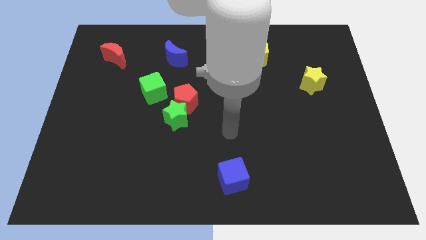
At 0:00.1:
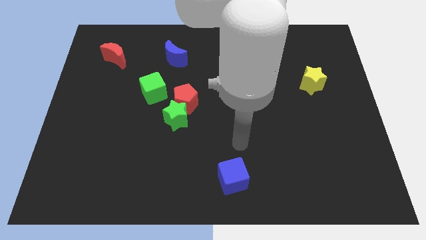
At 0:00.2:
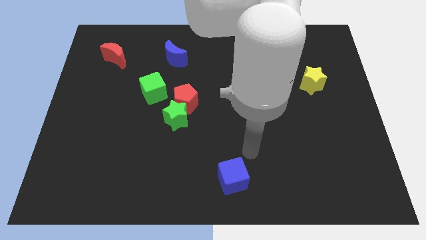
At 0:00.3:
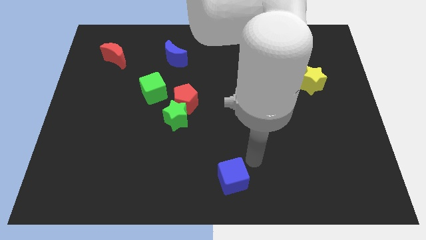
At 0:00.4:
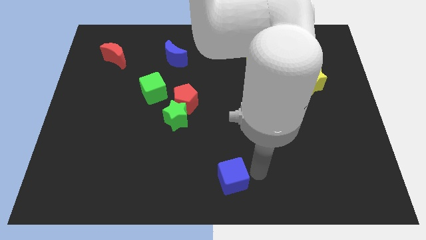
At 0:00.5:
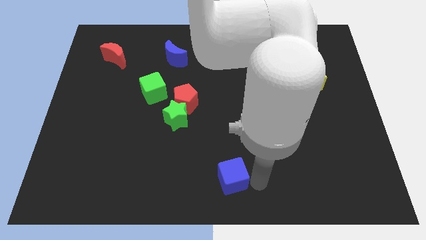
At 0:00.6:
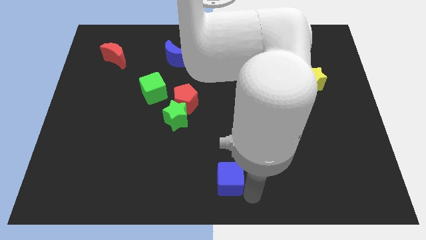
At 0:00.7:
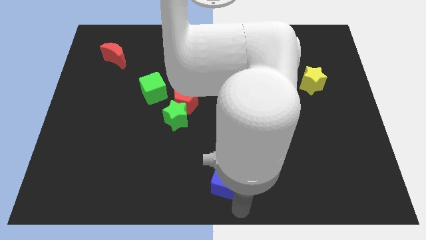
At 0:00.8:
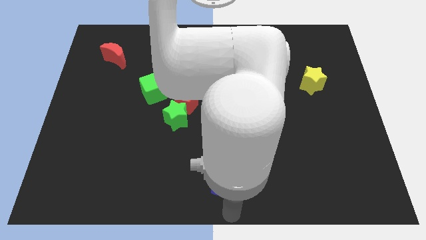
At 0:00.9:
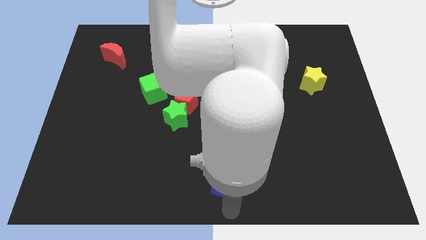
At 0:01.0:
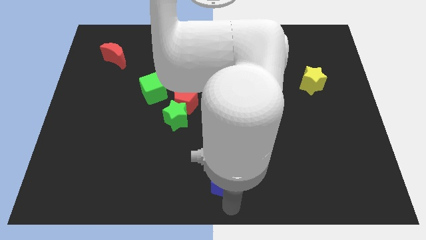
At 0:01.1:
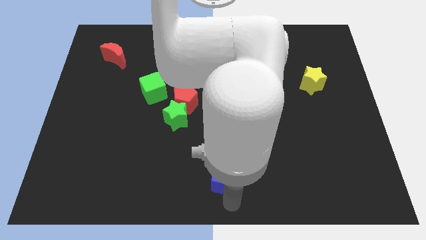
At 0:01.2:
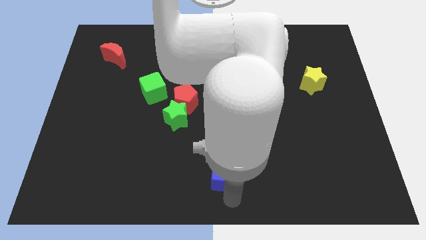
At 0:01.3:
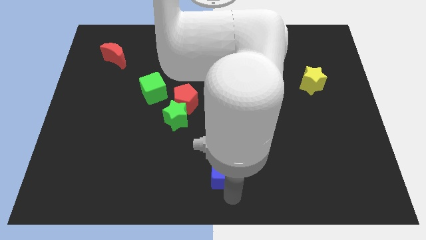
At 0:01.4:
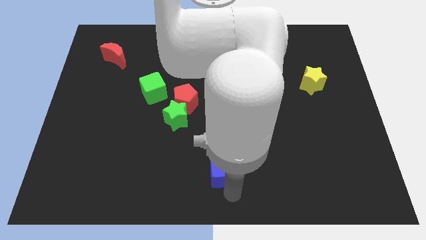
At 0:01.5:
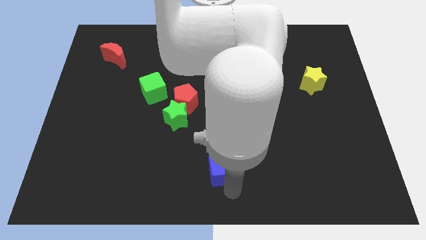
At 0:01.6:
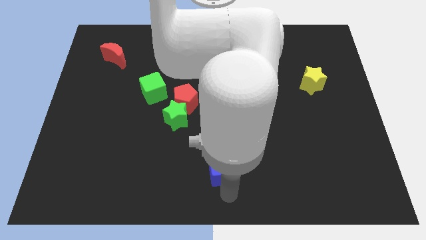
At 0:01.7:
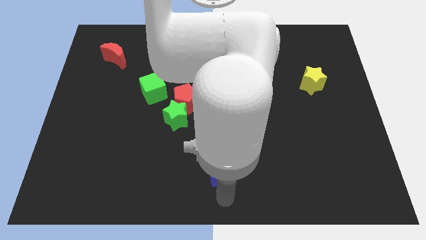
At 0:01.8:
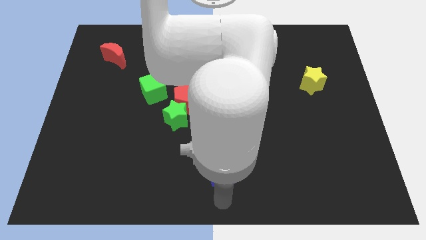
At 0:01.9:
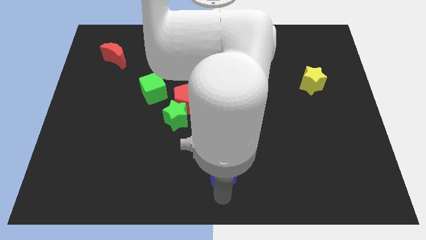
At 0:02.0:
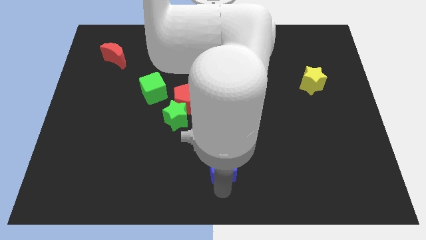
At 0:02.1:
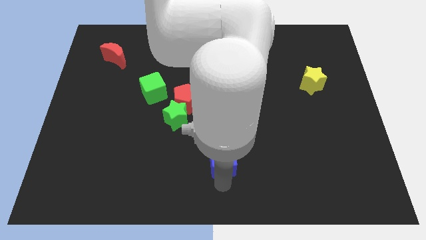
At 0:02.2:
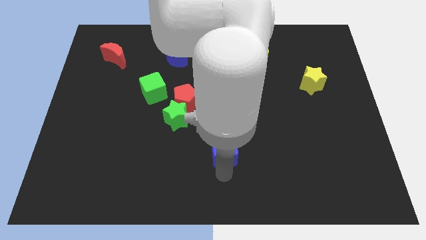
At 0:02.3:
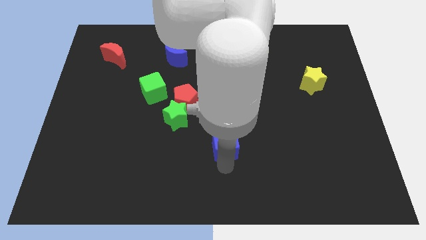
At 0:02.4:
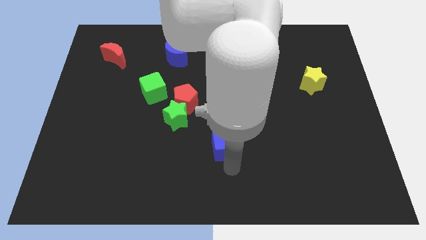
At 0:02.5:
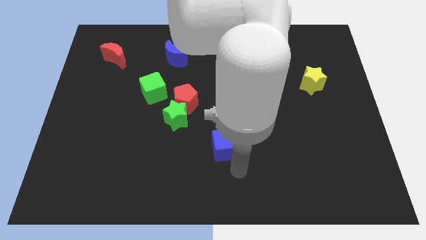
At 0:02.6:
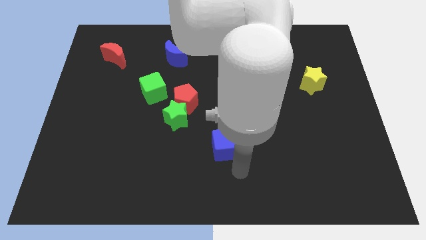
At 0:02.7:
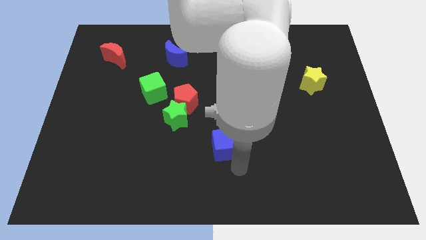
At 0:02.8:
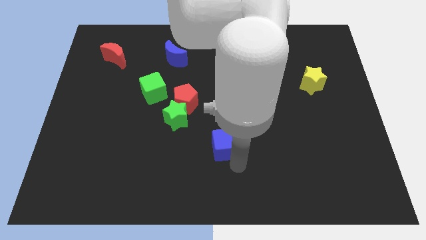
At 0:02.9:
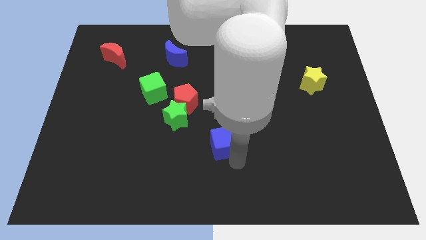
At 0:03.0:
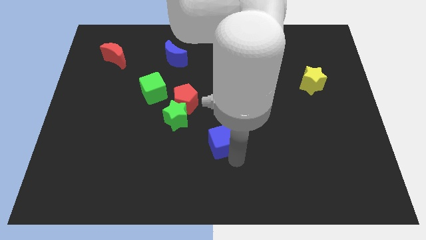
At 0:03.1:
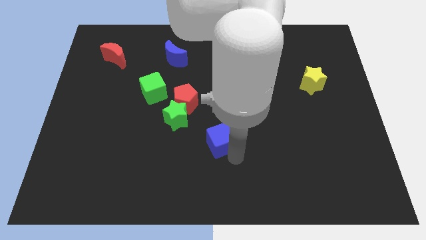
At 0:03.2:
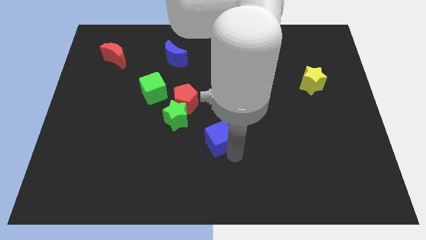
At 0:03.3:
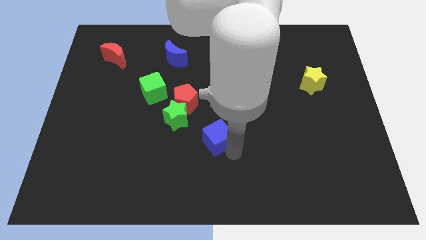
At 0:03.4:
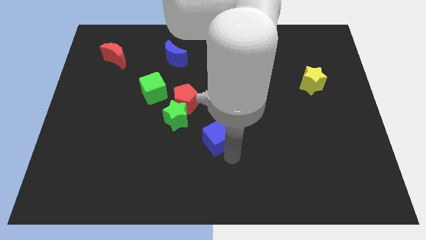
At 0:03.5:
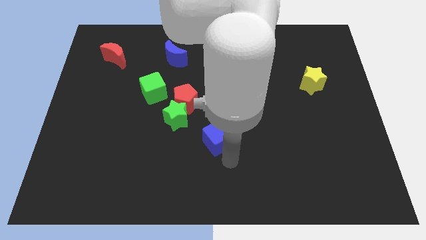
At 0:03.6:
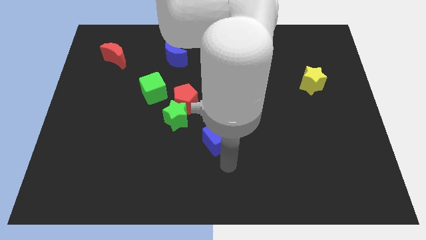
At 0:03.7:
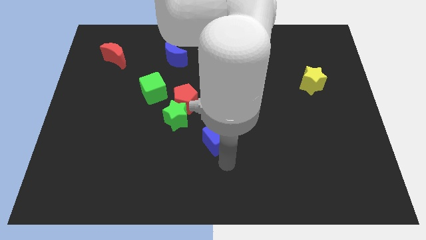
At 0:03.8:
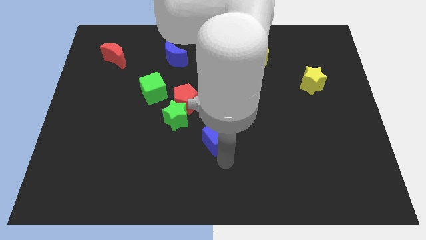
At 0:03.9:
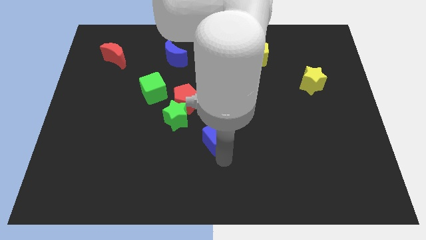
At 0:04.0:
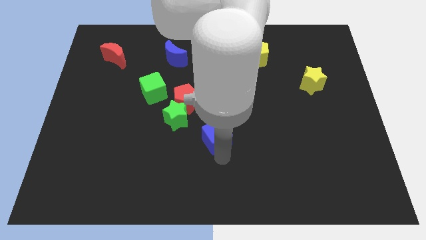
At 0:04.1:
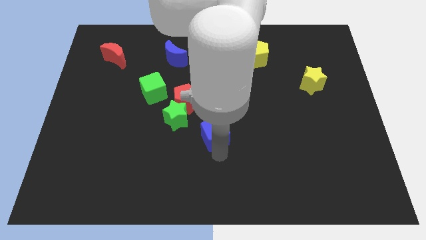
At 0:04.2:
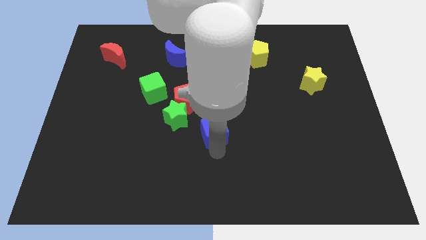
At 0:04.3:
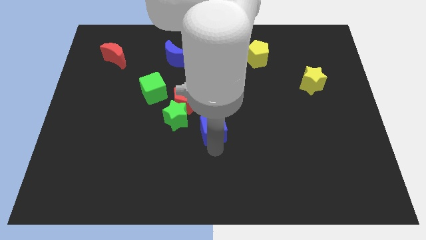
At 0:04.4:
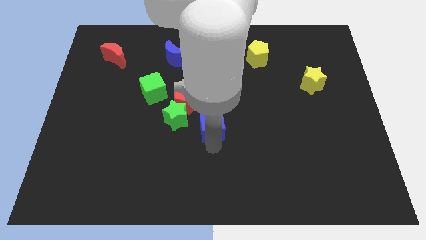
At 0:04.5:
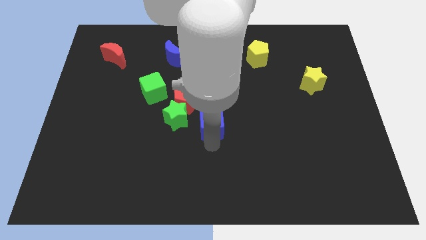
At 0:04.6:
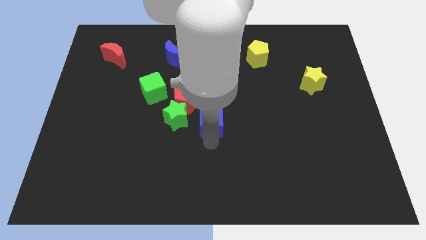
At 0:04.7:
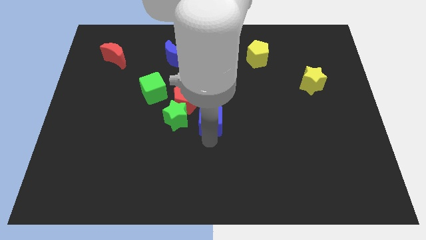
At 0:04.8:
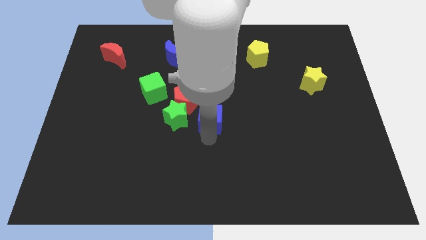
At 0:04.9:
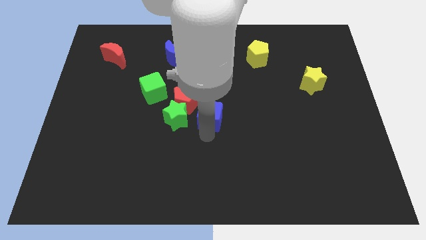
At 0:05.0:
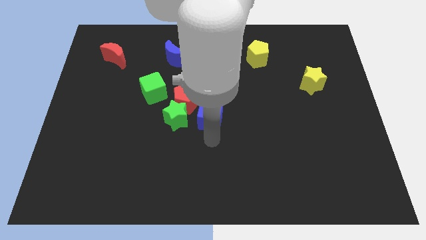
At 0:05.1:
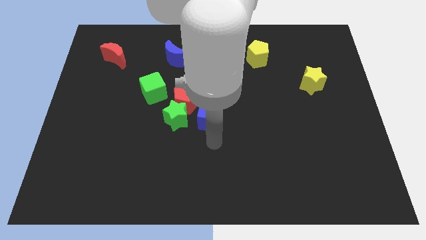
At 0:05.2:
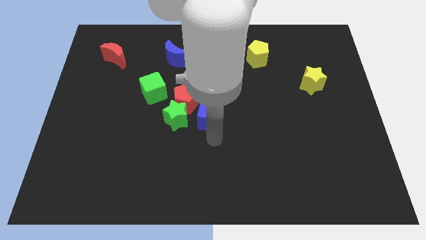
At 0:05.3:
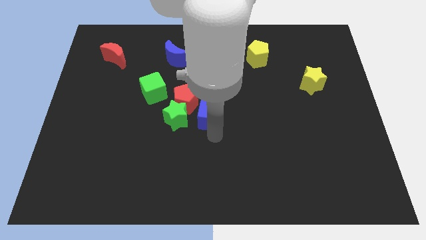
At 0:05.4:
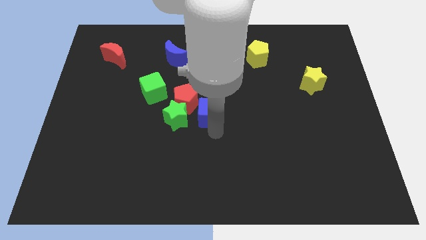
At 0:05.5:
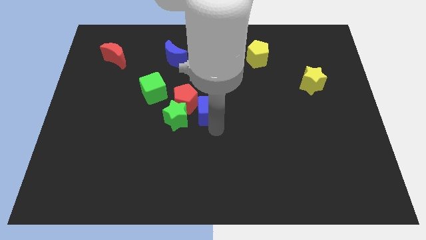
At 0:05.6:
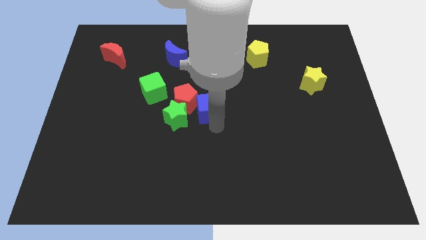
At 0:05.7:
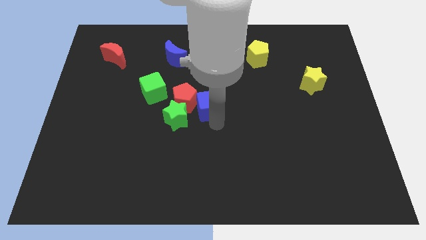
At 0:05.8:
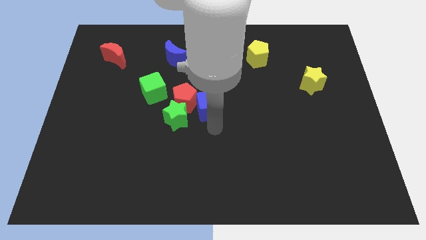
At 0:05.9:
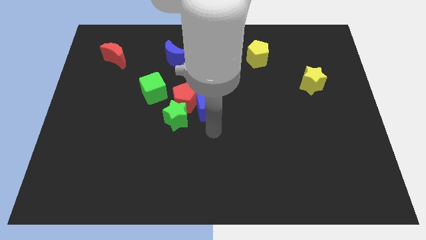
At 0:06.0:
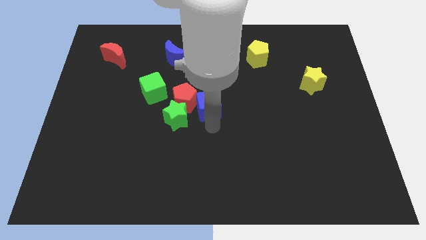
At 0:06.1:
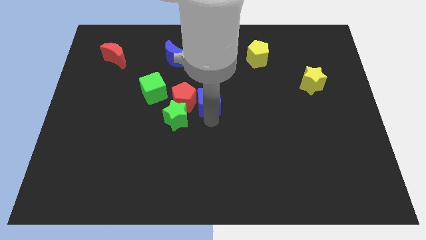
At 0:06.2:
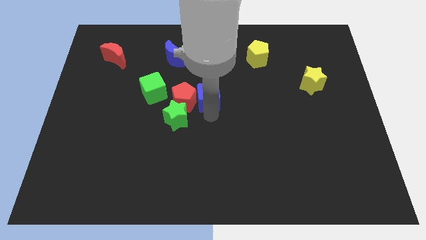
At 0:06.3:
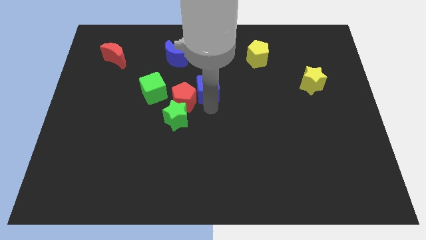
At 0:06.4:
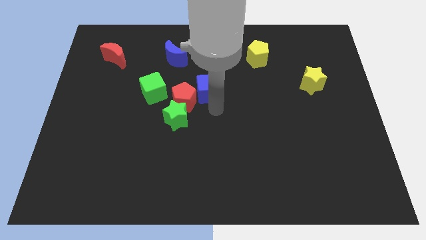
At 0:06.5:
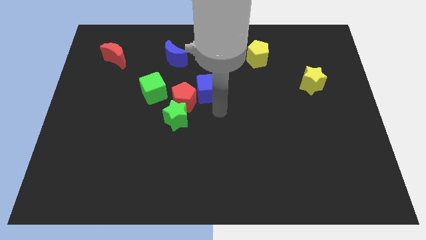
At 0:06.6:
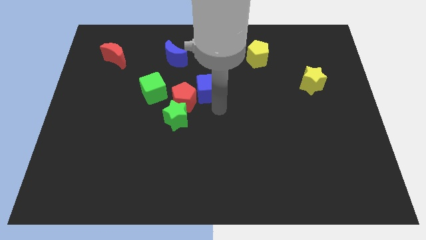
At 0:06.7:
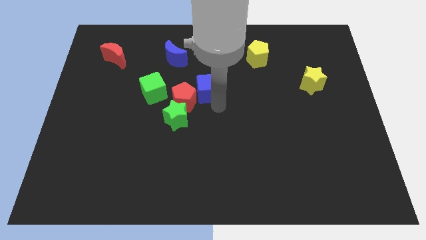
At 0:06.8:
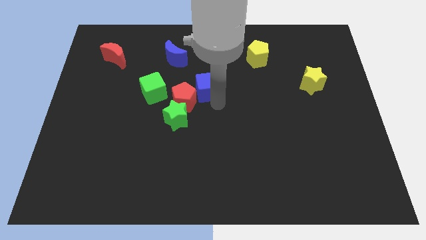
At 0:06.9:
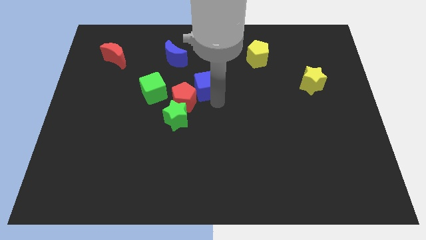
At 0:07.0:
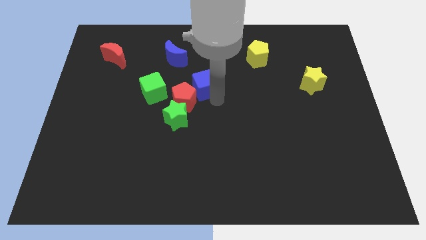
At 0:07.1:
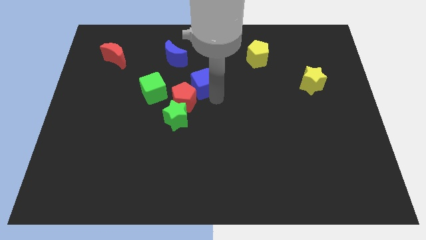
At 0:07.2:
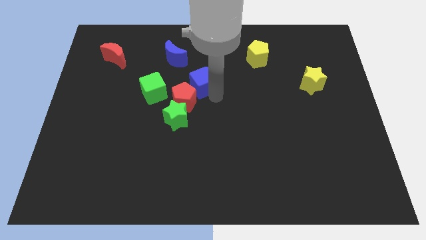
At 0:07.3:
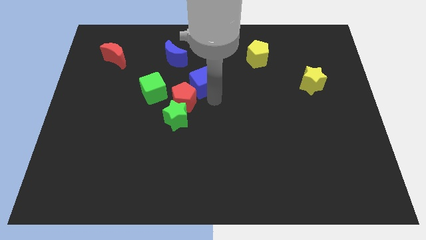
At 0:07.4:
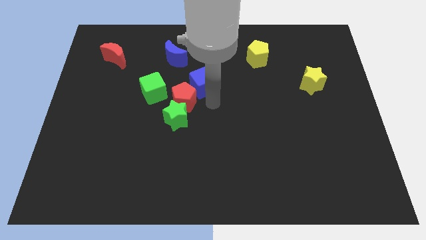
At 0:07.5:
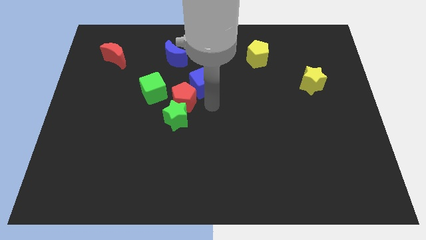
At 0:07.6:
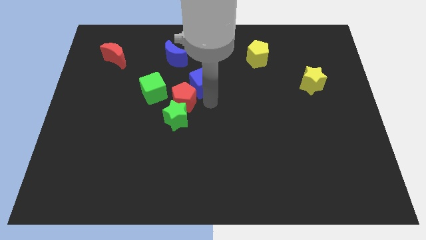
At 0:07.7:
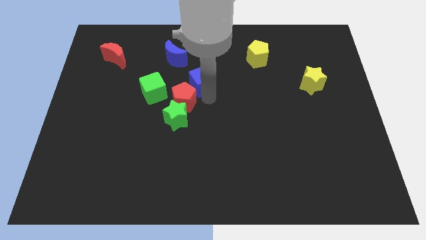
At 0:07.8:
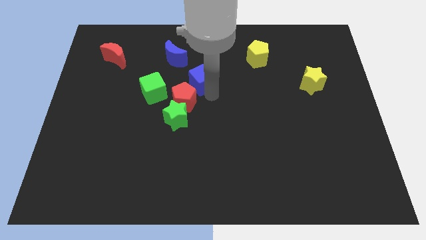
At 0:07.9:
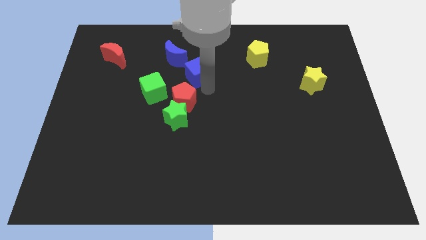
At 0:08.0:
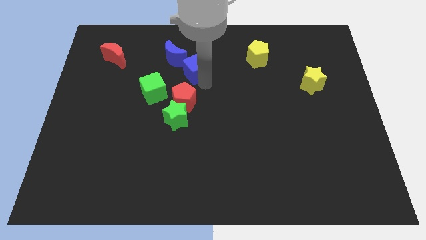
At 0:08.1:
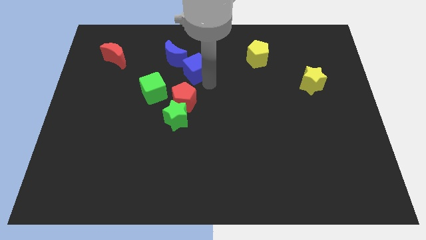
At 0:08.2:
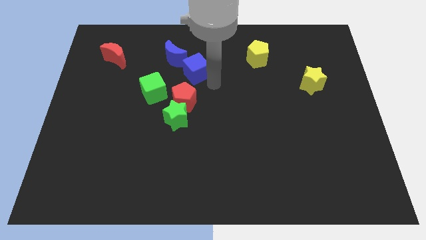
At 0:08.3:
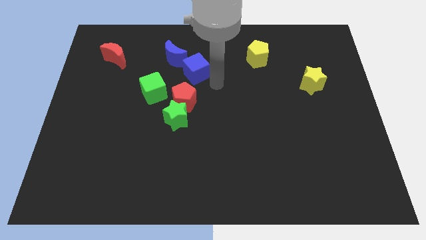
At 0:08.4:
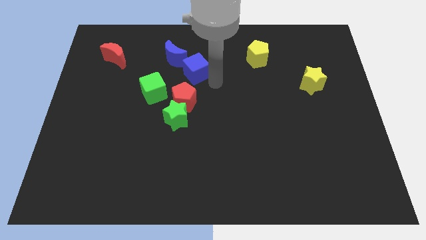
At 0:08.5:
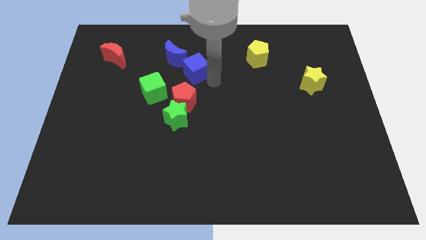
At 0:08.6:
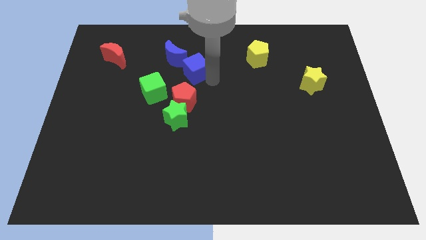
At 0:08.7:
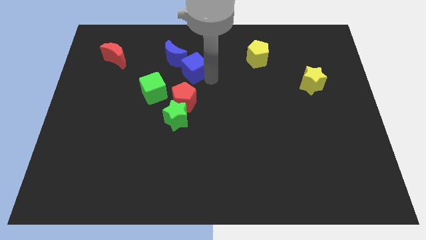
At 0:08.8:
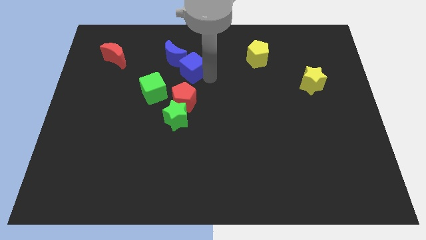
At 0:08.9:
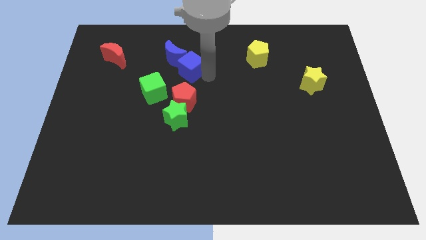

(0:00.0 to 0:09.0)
push the blue cube towards the blue moon
